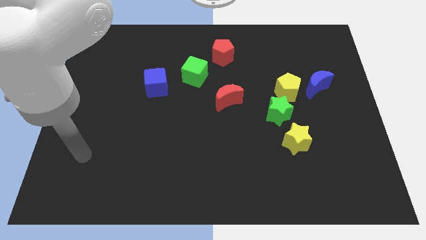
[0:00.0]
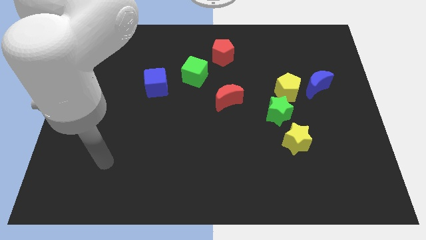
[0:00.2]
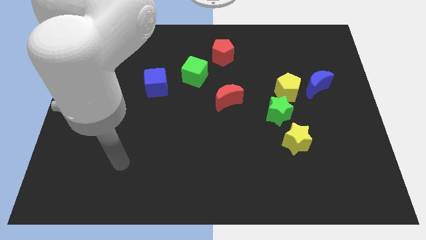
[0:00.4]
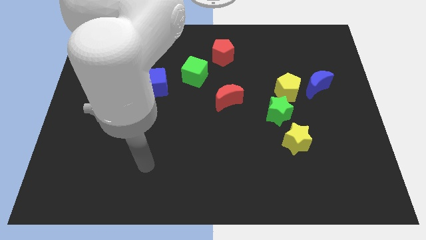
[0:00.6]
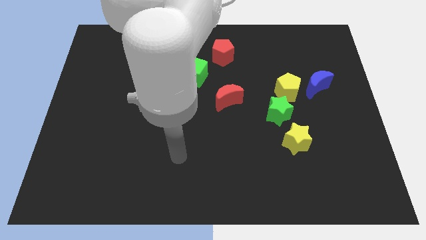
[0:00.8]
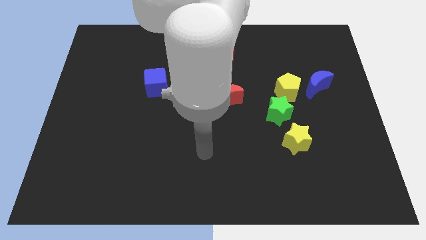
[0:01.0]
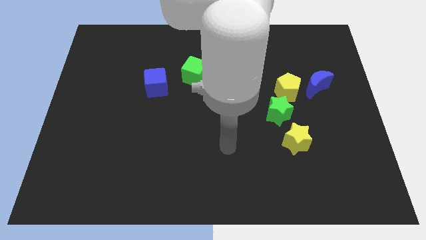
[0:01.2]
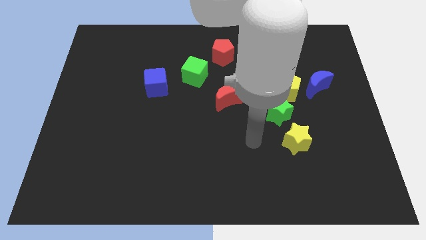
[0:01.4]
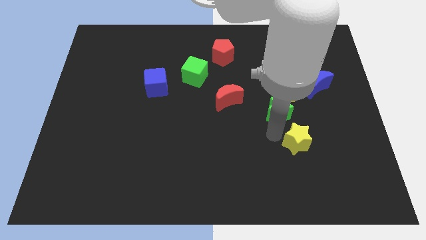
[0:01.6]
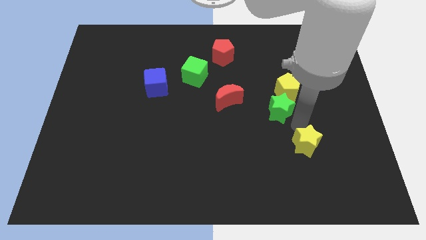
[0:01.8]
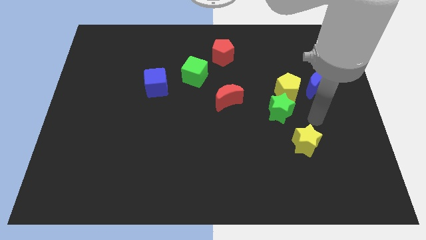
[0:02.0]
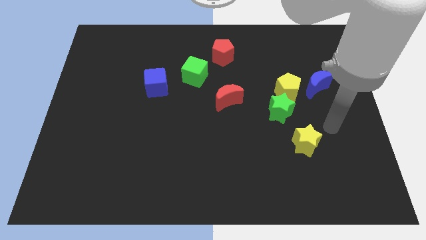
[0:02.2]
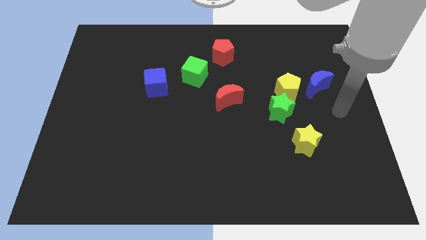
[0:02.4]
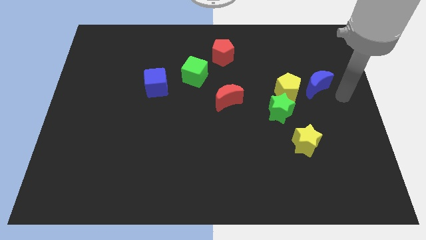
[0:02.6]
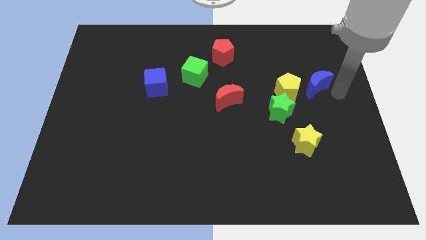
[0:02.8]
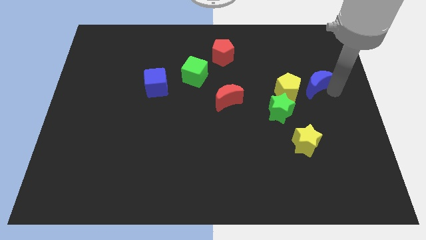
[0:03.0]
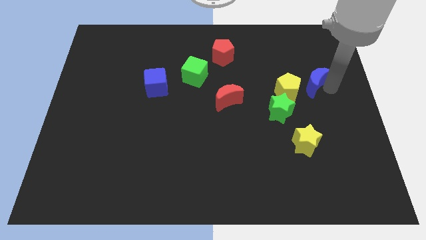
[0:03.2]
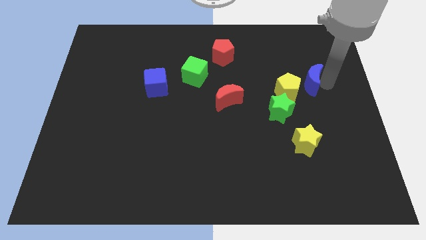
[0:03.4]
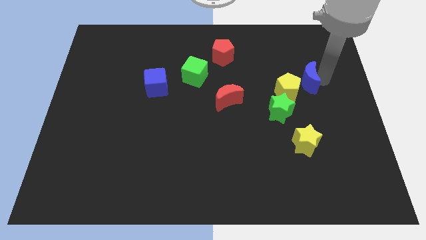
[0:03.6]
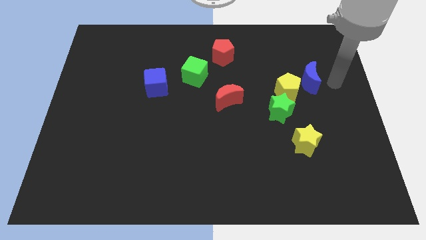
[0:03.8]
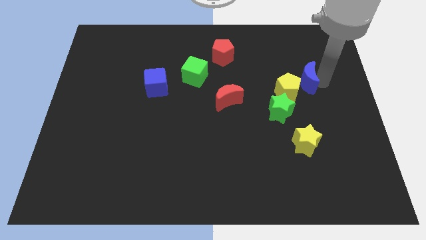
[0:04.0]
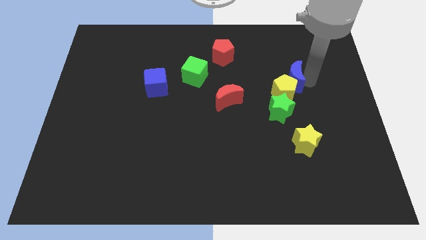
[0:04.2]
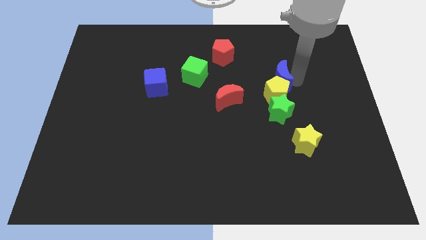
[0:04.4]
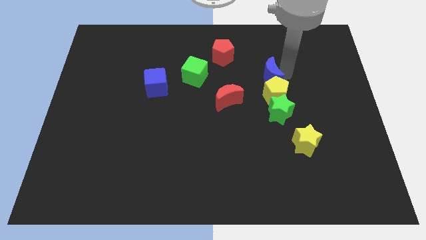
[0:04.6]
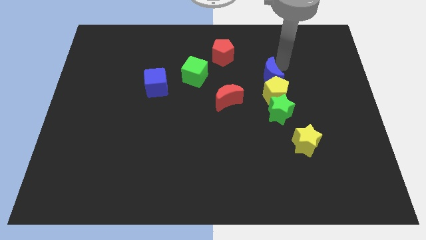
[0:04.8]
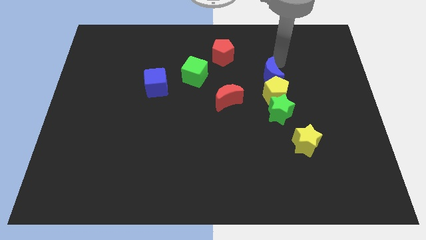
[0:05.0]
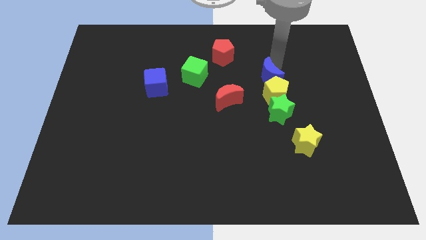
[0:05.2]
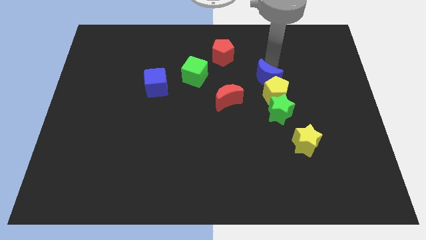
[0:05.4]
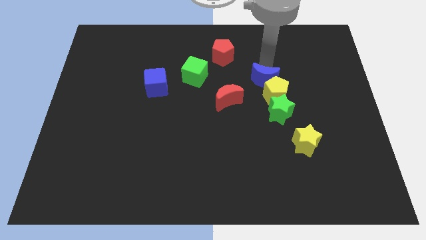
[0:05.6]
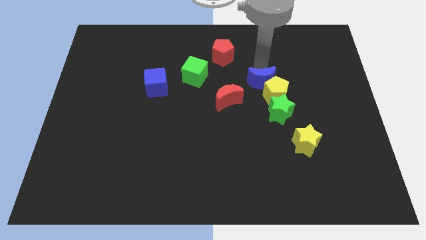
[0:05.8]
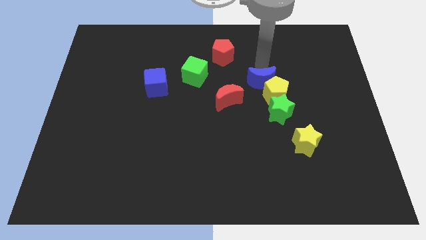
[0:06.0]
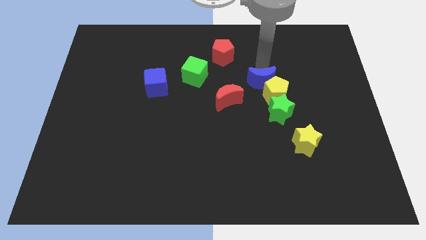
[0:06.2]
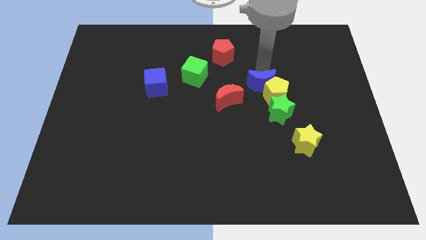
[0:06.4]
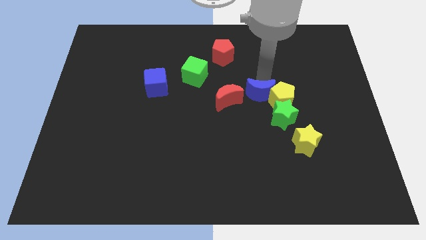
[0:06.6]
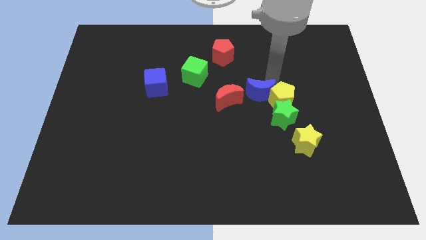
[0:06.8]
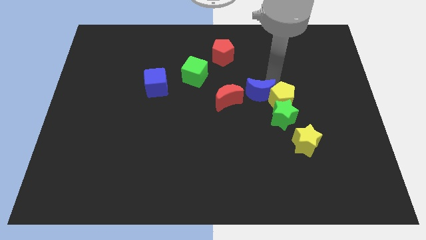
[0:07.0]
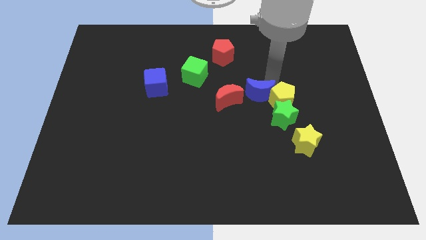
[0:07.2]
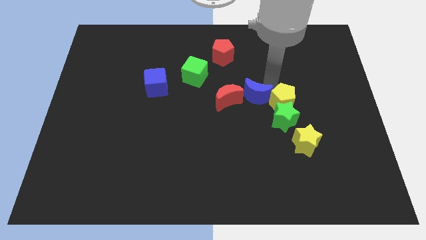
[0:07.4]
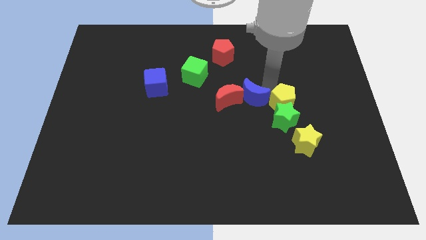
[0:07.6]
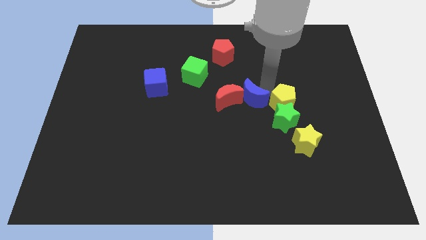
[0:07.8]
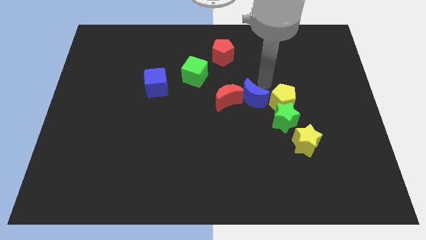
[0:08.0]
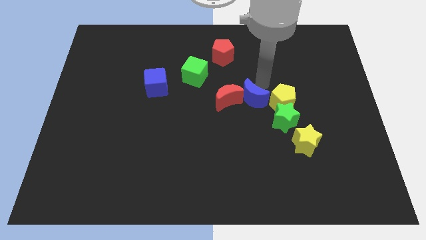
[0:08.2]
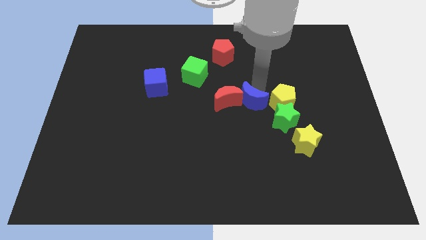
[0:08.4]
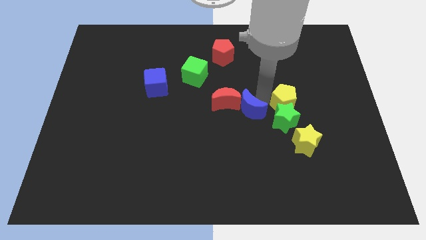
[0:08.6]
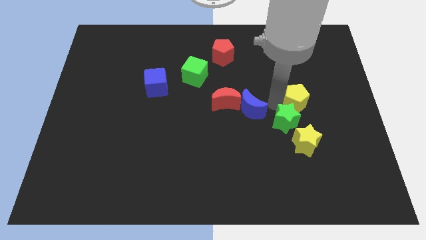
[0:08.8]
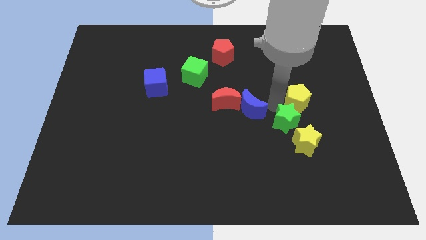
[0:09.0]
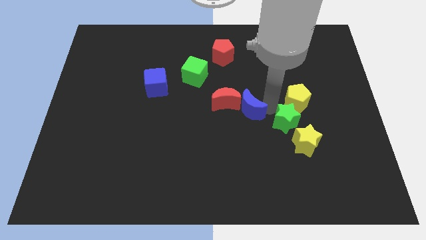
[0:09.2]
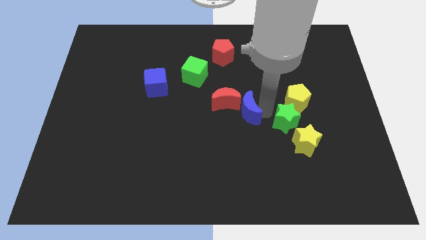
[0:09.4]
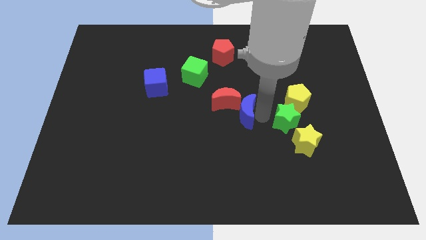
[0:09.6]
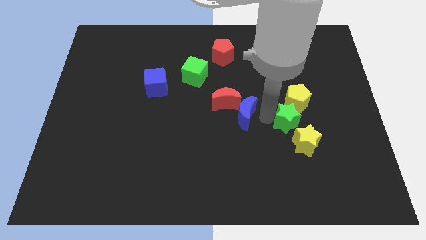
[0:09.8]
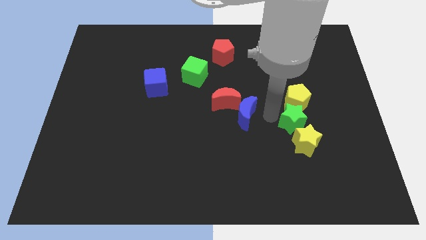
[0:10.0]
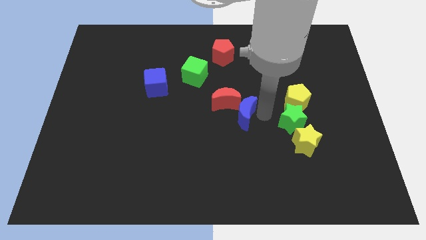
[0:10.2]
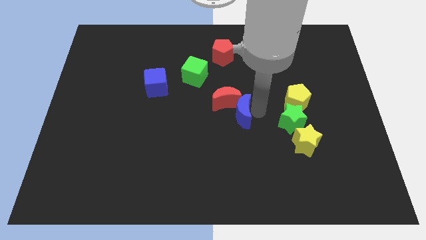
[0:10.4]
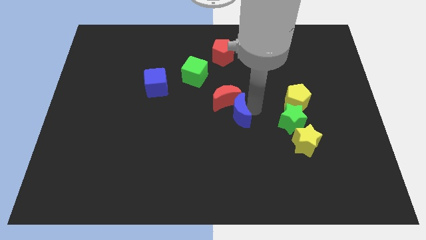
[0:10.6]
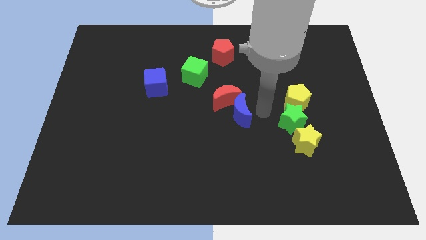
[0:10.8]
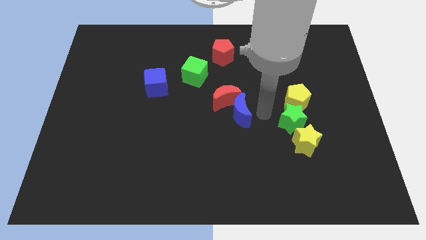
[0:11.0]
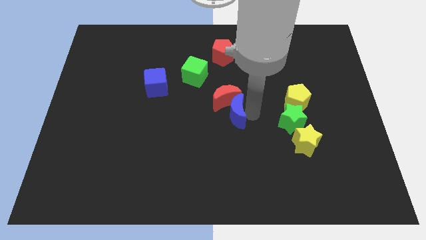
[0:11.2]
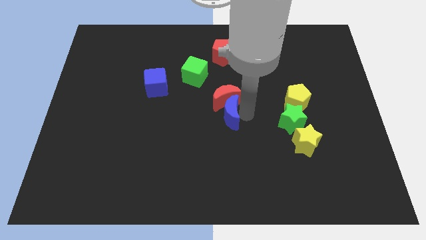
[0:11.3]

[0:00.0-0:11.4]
put the blue moon to the bottom left side of the red moon

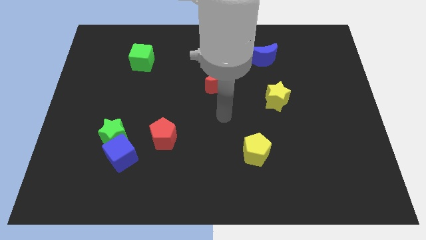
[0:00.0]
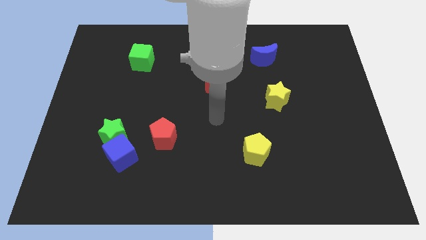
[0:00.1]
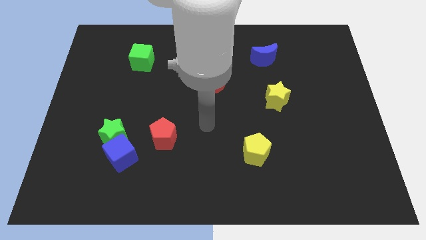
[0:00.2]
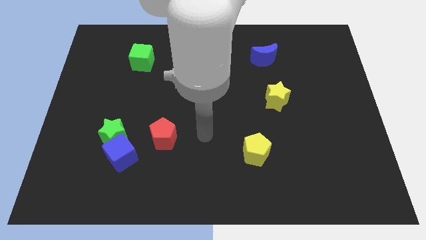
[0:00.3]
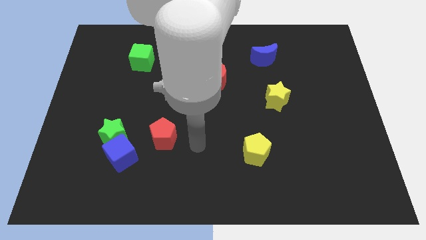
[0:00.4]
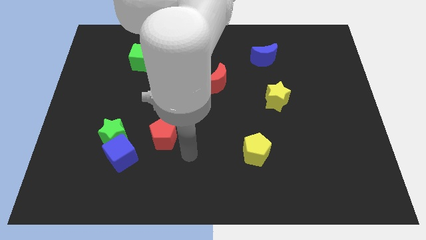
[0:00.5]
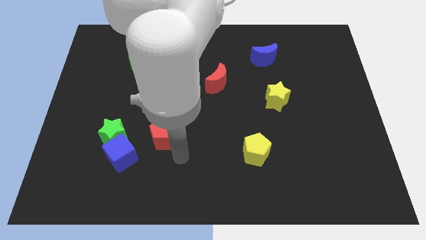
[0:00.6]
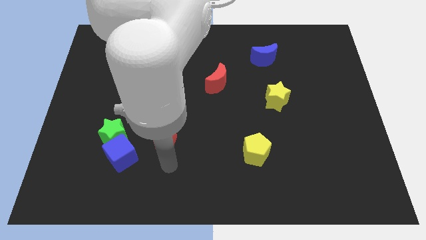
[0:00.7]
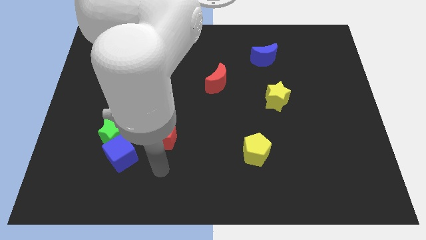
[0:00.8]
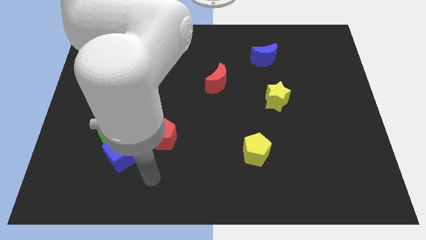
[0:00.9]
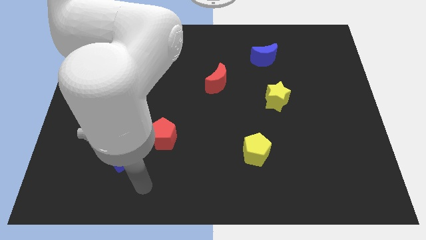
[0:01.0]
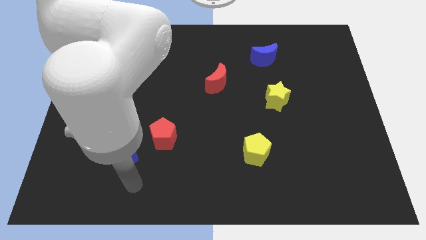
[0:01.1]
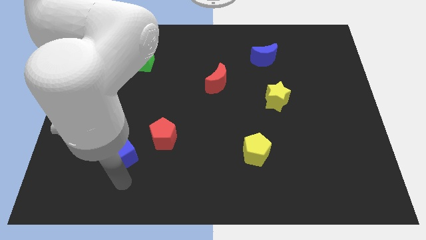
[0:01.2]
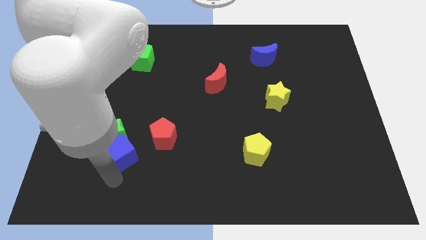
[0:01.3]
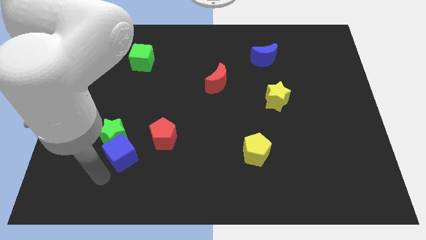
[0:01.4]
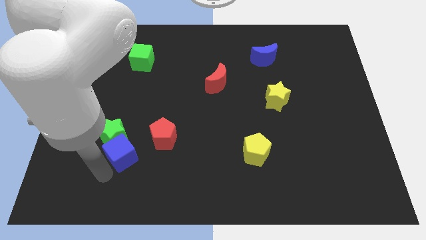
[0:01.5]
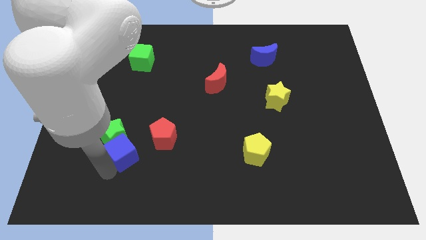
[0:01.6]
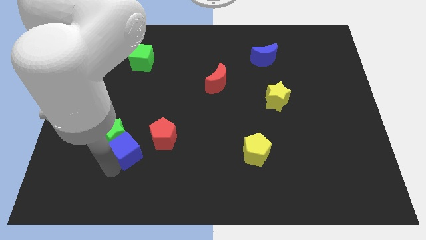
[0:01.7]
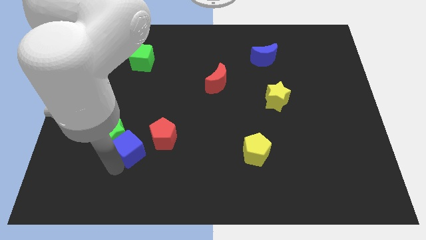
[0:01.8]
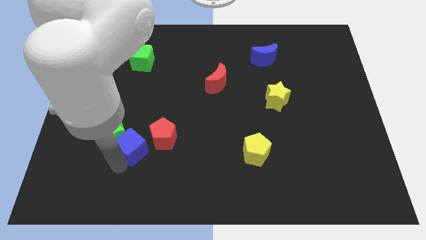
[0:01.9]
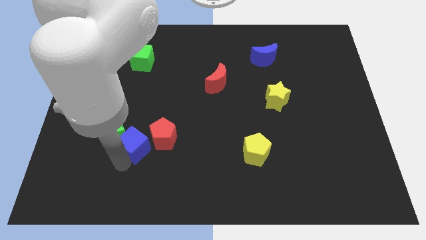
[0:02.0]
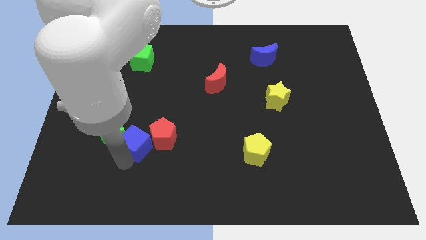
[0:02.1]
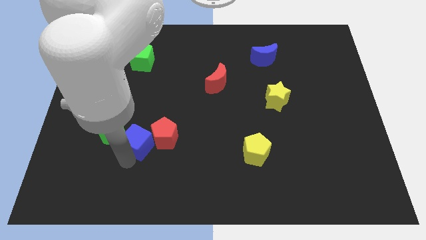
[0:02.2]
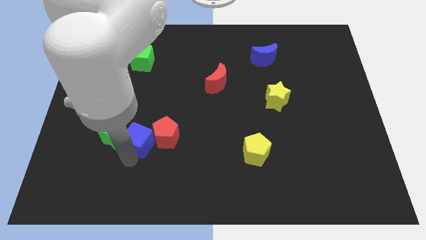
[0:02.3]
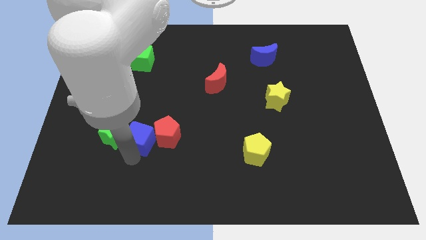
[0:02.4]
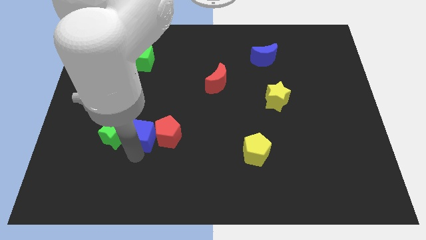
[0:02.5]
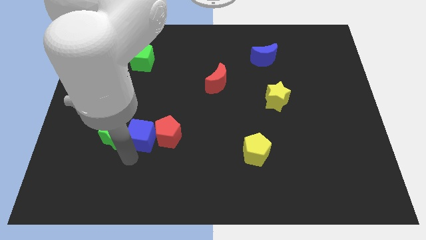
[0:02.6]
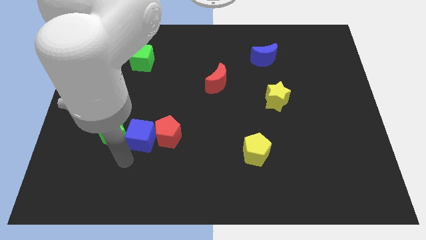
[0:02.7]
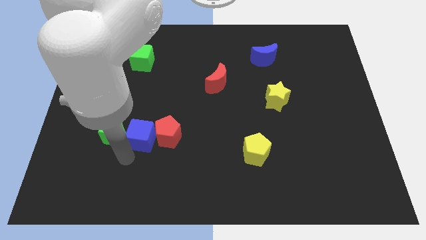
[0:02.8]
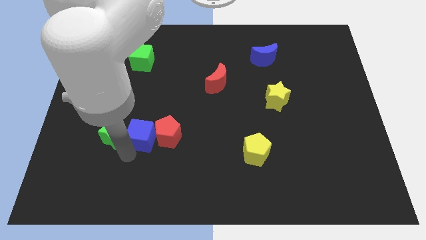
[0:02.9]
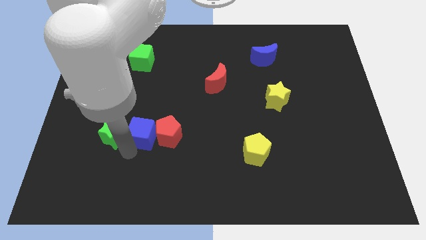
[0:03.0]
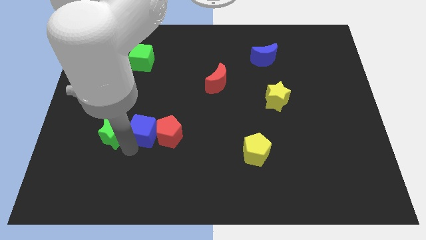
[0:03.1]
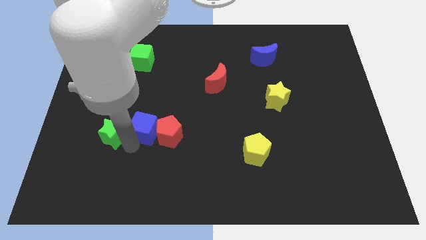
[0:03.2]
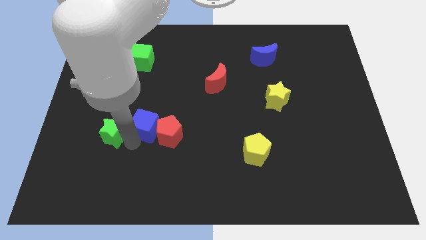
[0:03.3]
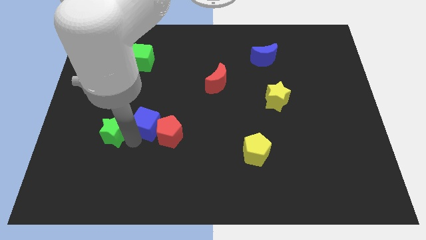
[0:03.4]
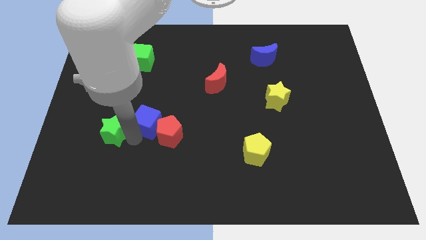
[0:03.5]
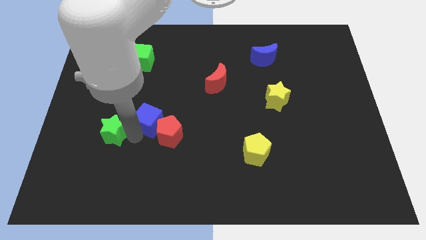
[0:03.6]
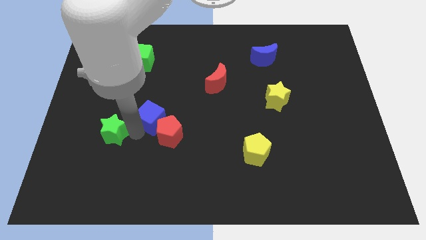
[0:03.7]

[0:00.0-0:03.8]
slide the blue cube above the red pentagon
